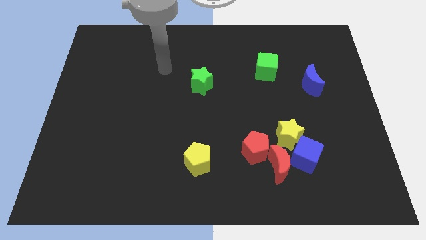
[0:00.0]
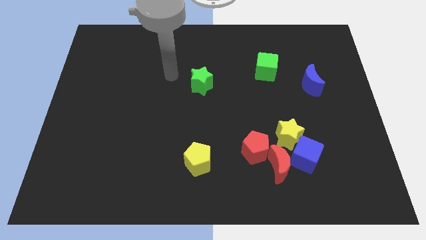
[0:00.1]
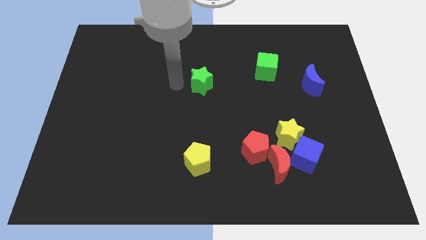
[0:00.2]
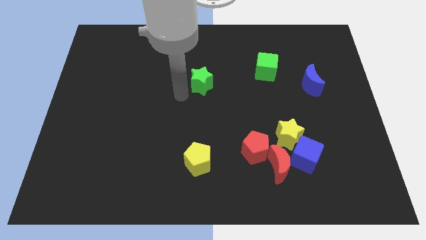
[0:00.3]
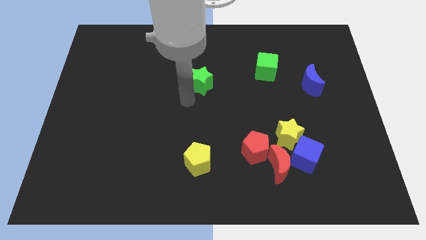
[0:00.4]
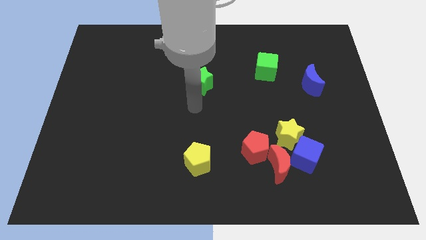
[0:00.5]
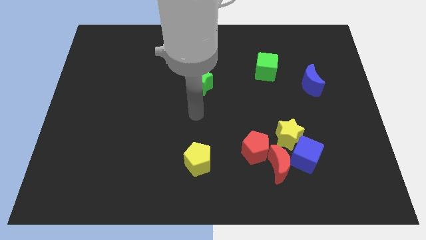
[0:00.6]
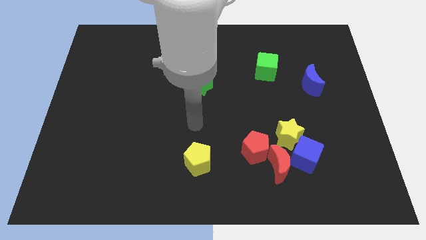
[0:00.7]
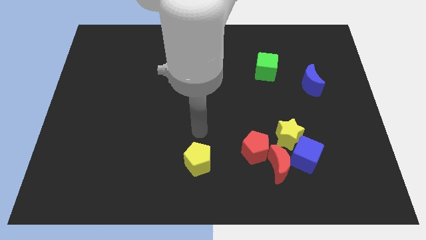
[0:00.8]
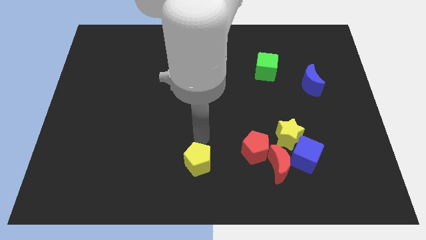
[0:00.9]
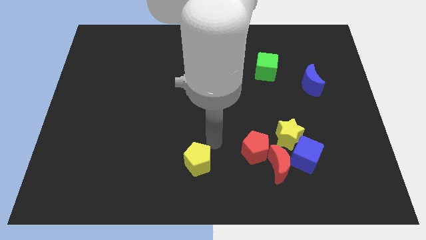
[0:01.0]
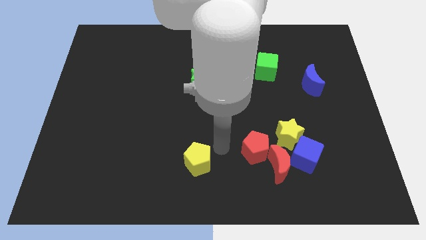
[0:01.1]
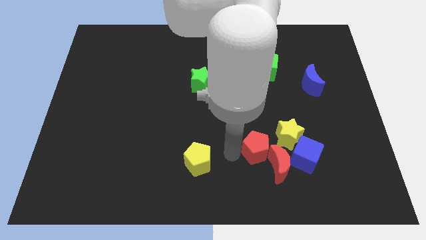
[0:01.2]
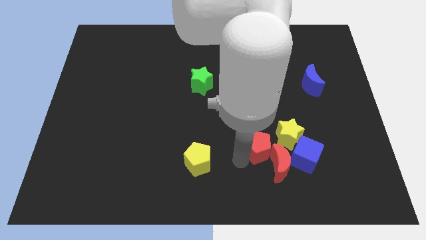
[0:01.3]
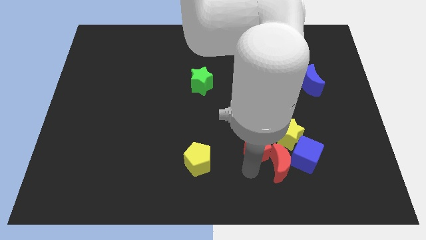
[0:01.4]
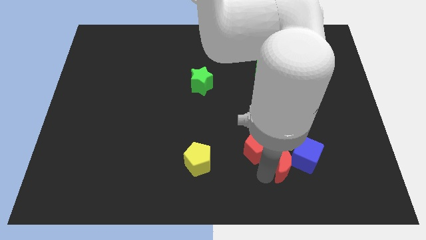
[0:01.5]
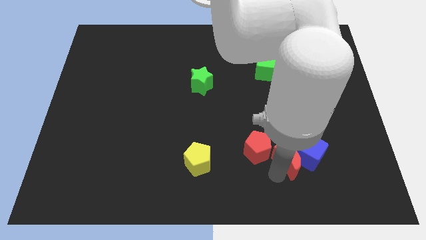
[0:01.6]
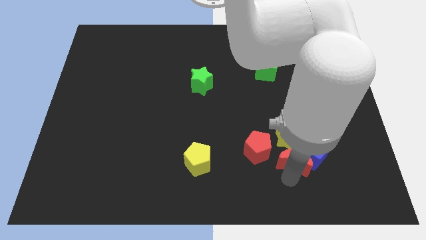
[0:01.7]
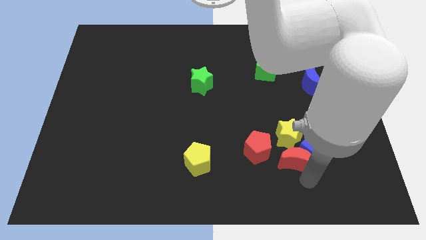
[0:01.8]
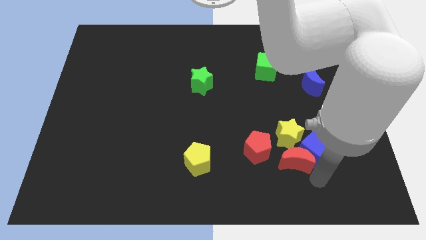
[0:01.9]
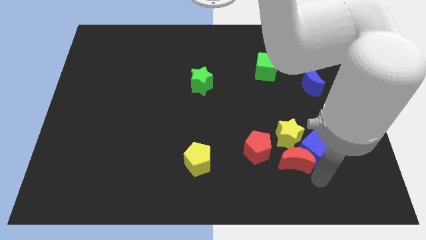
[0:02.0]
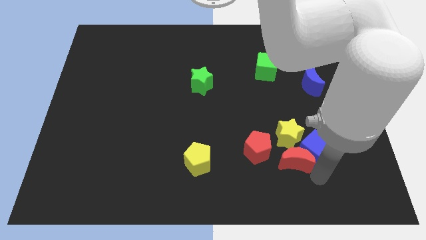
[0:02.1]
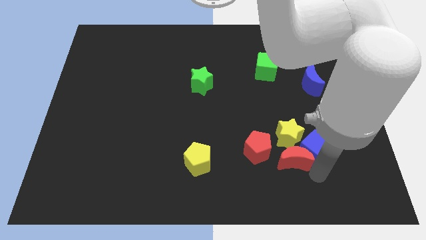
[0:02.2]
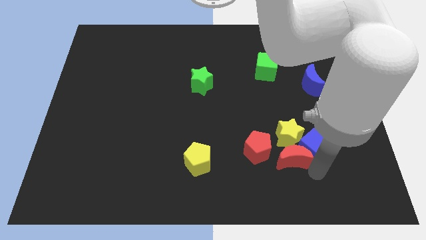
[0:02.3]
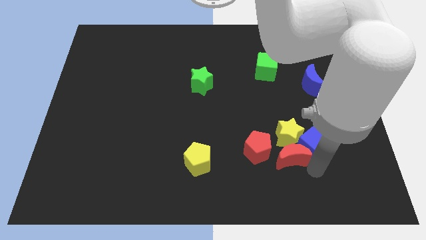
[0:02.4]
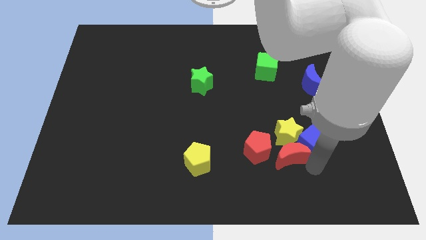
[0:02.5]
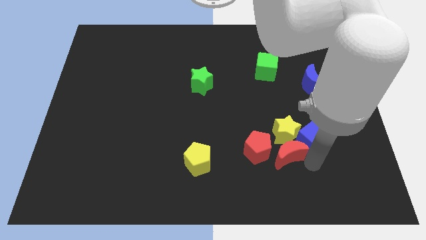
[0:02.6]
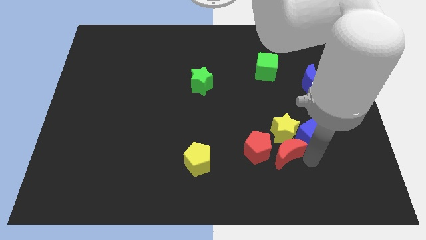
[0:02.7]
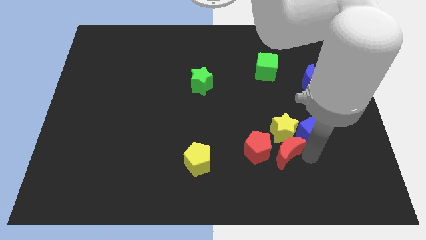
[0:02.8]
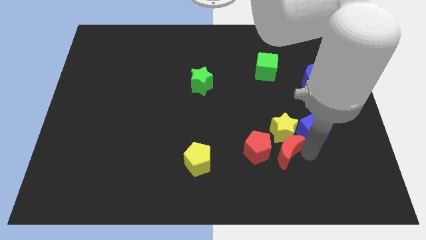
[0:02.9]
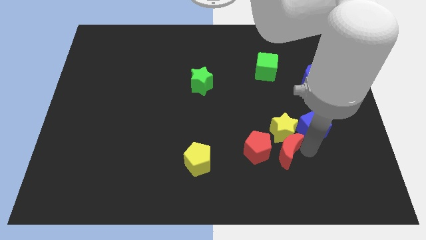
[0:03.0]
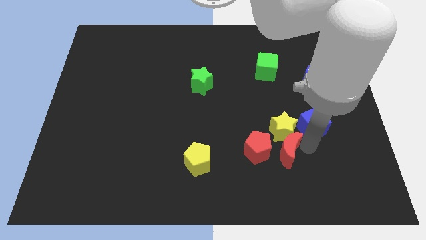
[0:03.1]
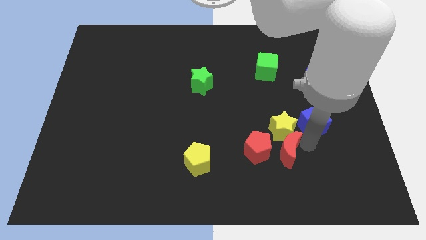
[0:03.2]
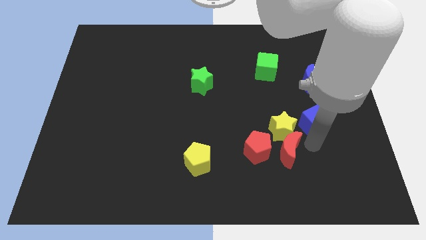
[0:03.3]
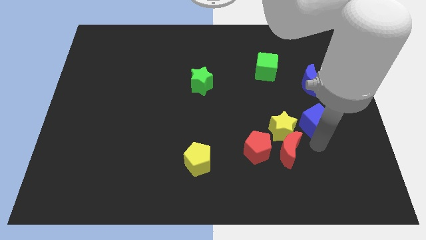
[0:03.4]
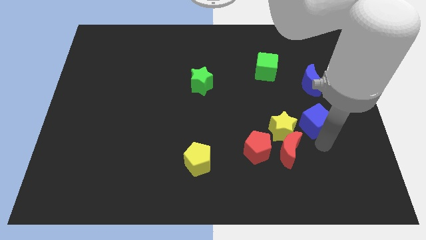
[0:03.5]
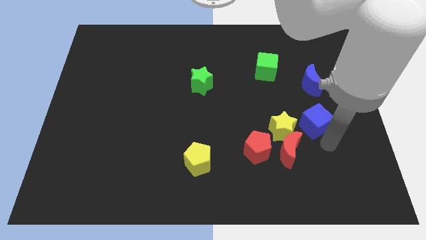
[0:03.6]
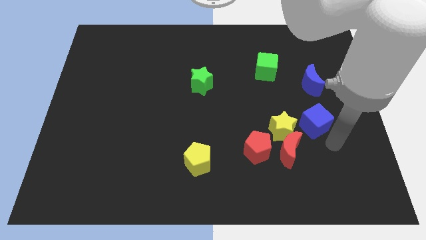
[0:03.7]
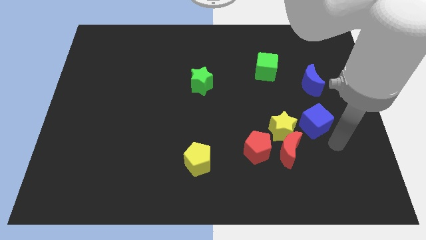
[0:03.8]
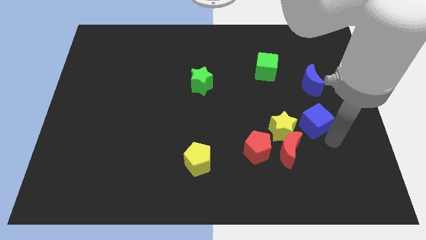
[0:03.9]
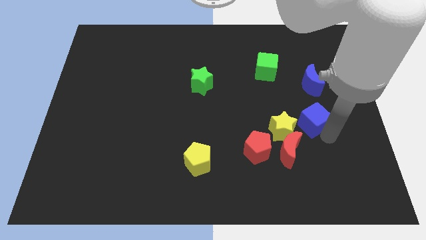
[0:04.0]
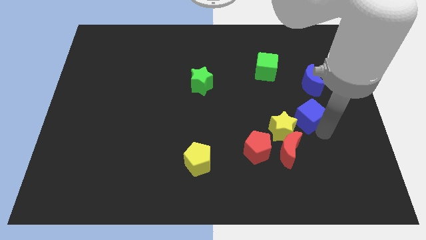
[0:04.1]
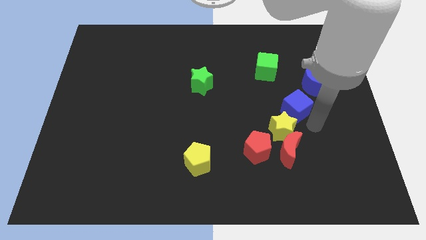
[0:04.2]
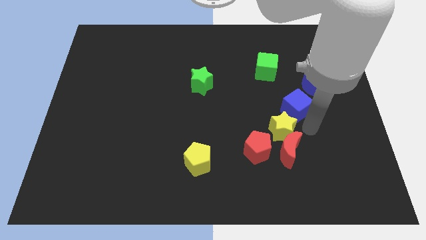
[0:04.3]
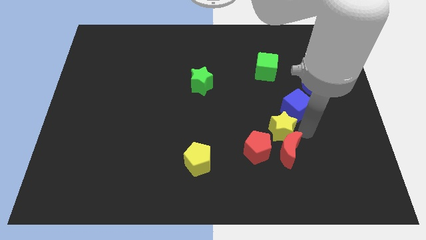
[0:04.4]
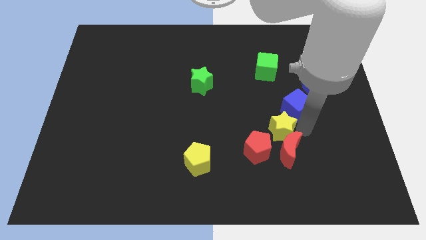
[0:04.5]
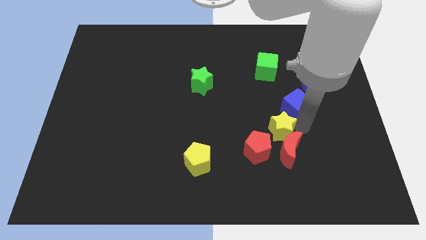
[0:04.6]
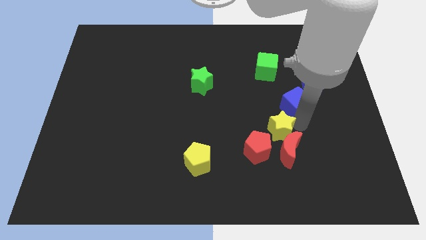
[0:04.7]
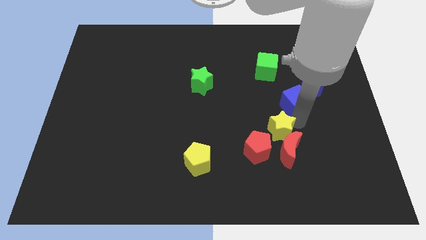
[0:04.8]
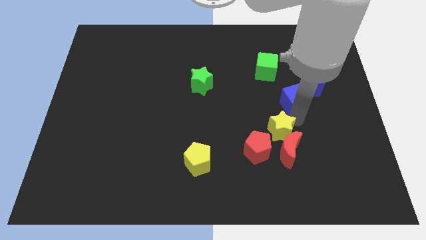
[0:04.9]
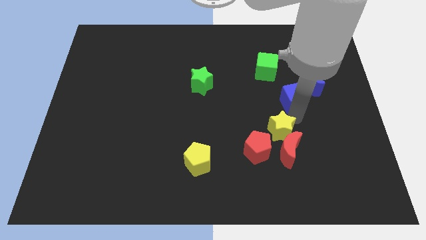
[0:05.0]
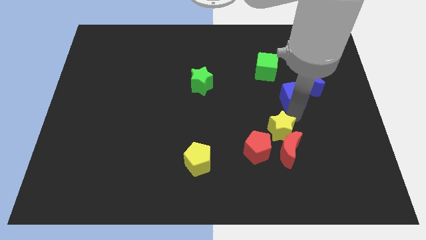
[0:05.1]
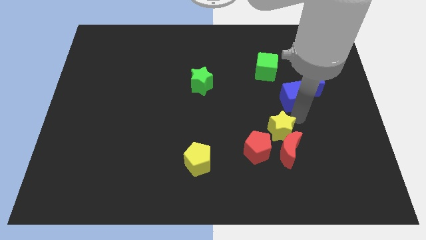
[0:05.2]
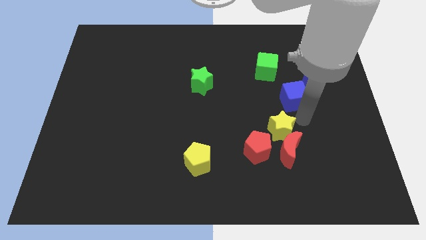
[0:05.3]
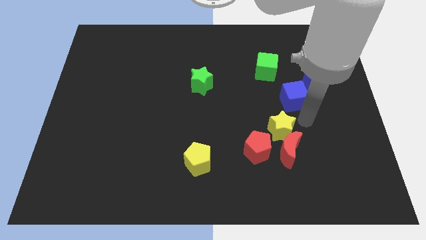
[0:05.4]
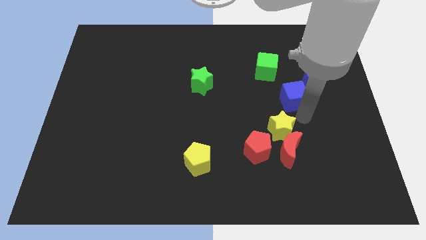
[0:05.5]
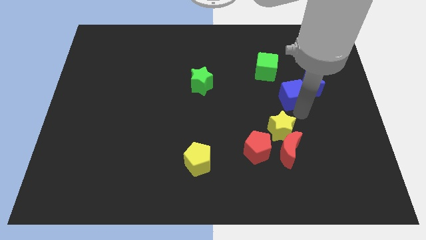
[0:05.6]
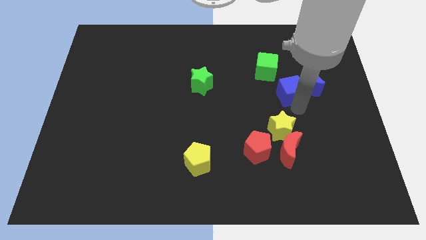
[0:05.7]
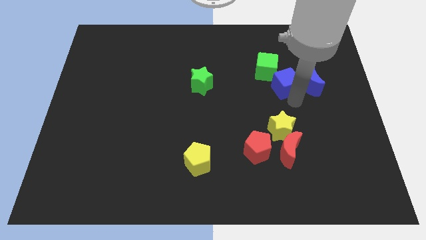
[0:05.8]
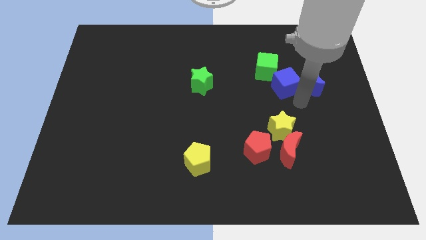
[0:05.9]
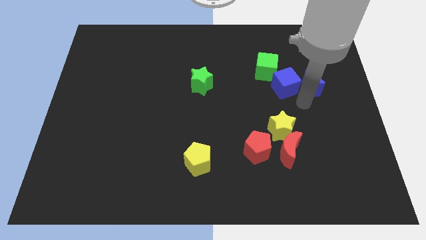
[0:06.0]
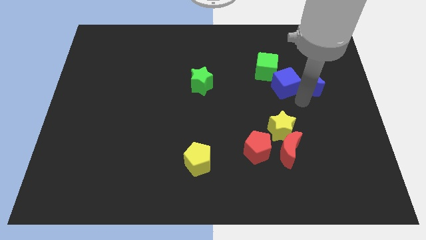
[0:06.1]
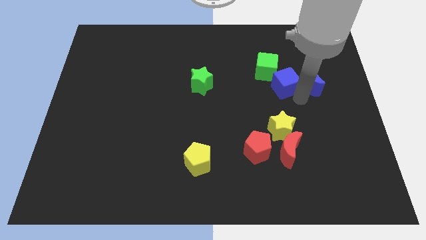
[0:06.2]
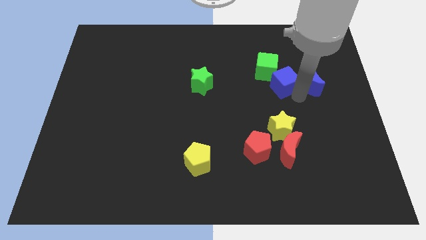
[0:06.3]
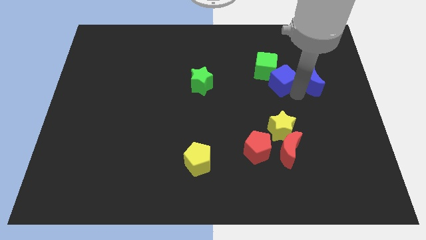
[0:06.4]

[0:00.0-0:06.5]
move the blue cube close to the green cube

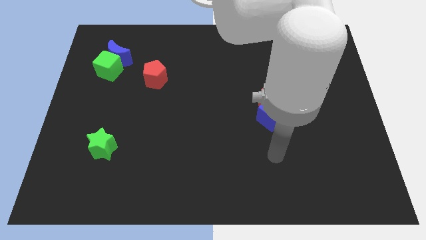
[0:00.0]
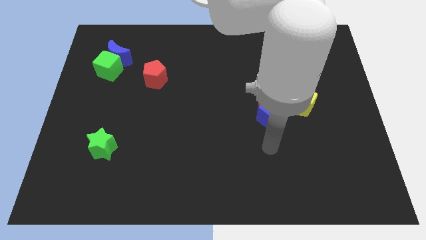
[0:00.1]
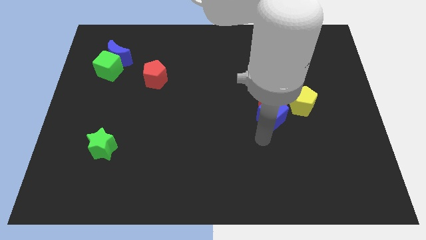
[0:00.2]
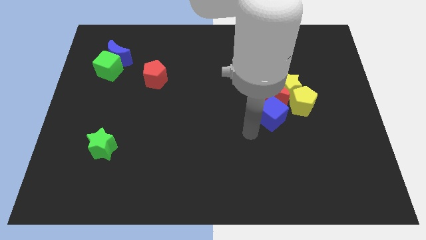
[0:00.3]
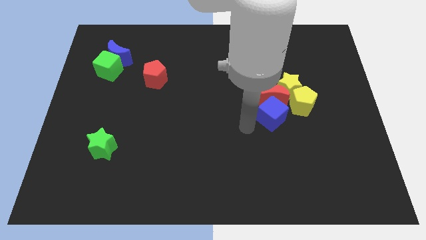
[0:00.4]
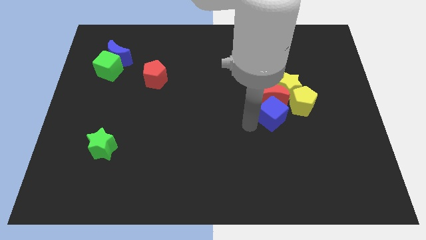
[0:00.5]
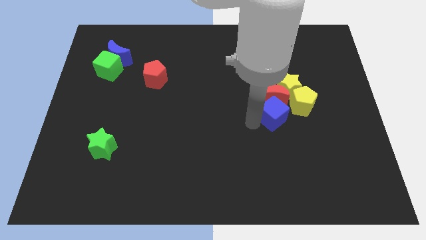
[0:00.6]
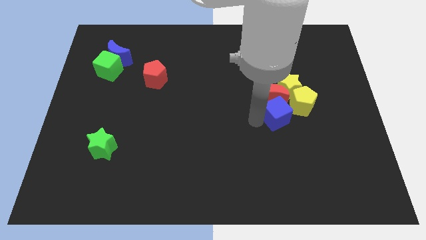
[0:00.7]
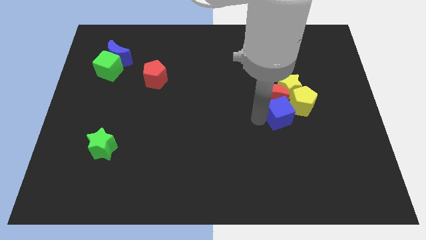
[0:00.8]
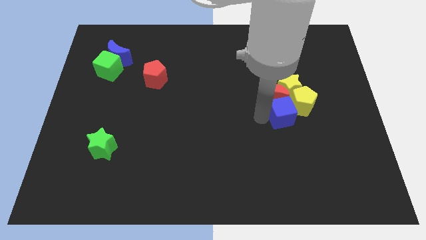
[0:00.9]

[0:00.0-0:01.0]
put the blue cube towards the yellow pentagon
